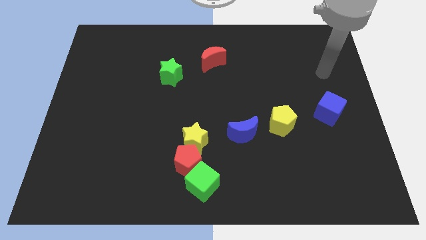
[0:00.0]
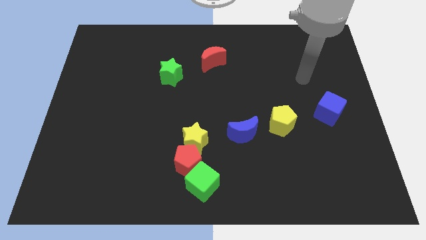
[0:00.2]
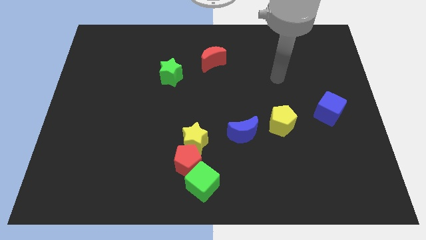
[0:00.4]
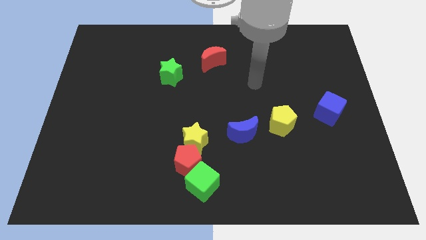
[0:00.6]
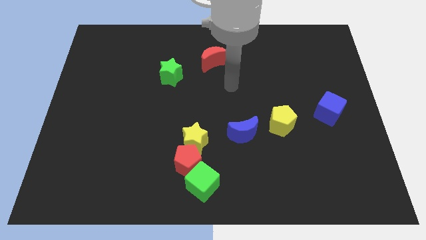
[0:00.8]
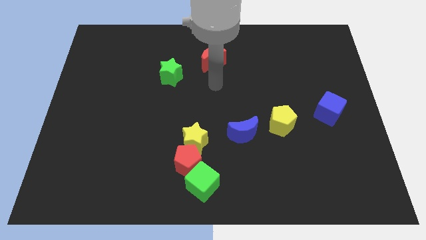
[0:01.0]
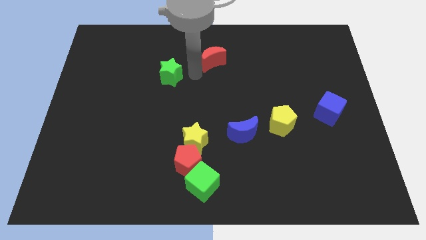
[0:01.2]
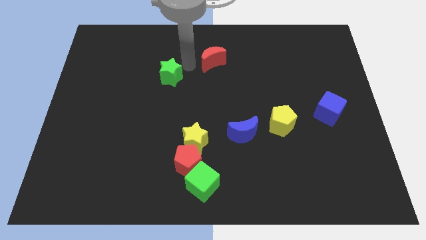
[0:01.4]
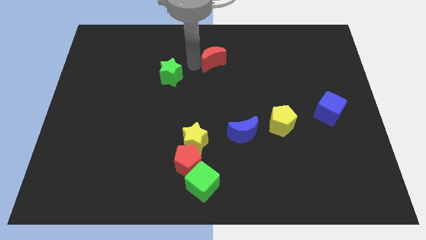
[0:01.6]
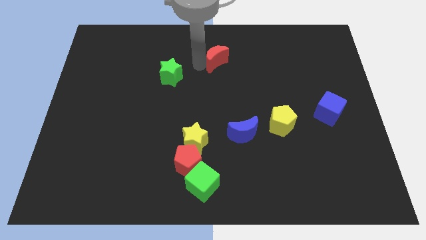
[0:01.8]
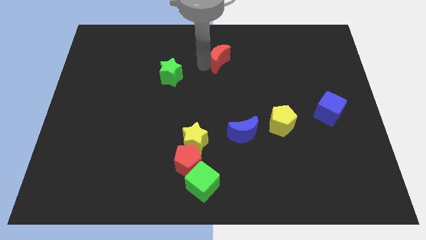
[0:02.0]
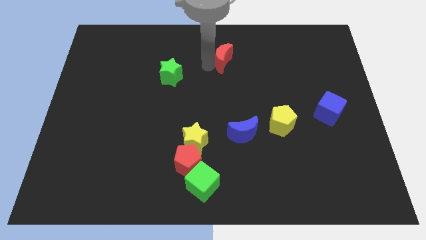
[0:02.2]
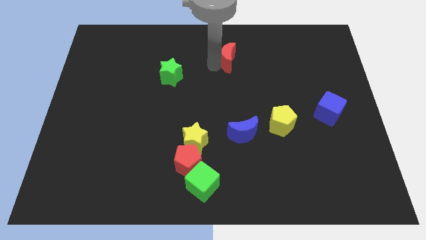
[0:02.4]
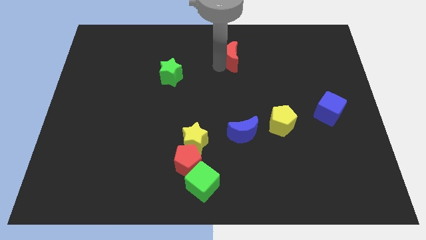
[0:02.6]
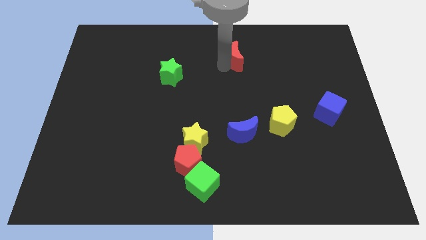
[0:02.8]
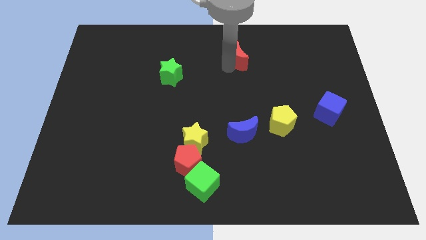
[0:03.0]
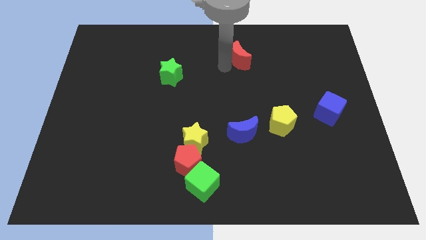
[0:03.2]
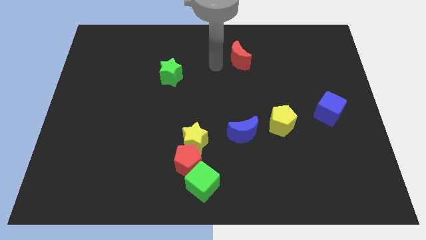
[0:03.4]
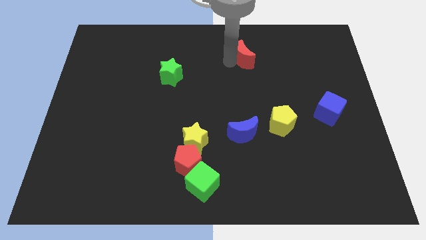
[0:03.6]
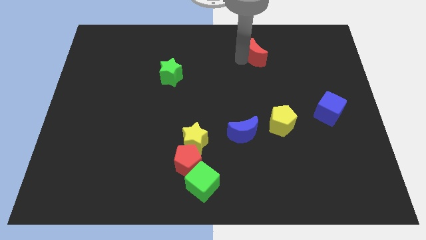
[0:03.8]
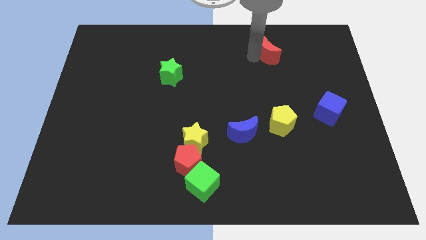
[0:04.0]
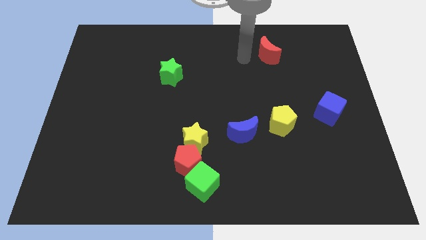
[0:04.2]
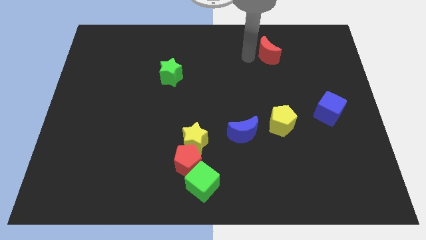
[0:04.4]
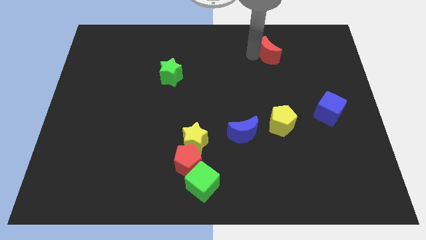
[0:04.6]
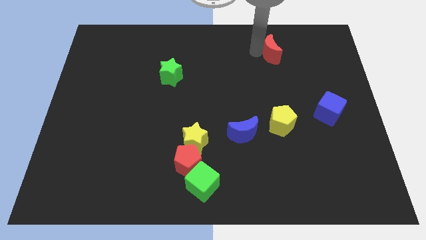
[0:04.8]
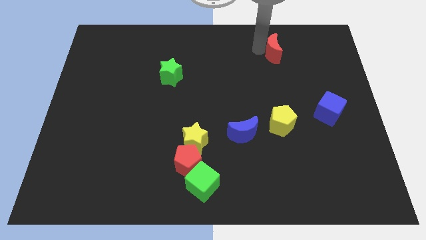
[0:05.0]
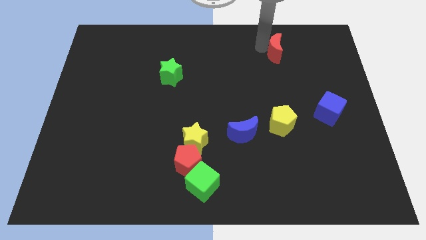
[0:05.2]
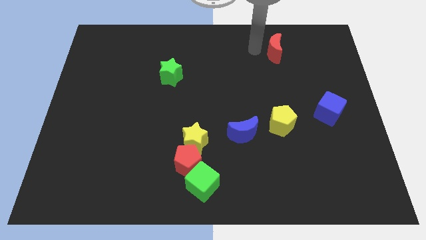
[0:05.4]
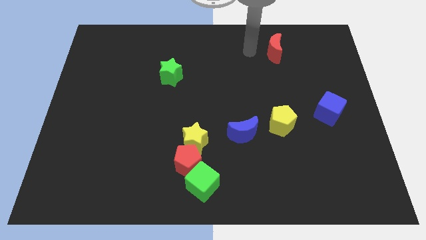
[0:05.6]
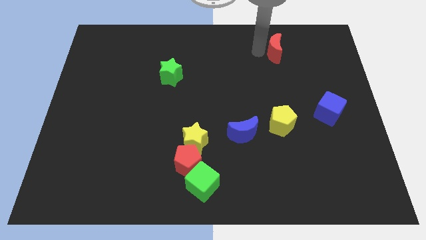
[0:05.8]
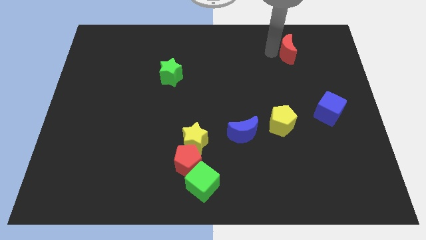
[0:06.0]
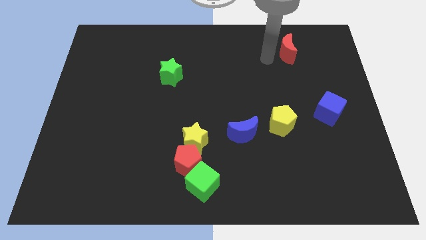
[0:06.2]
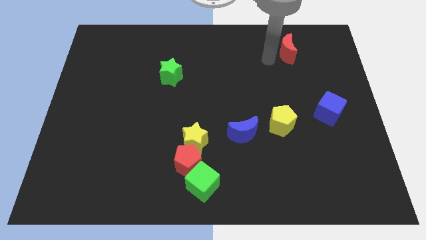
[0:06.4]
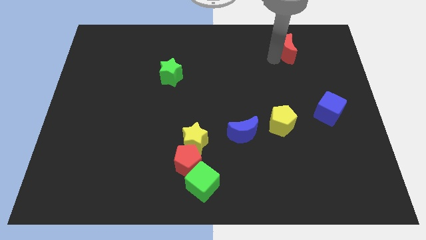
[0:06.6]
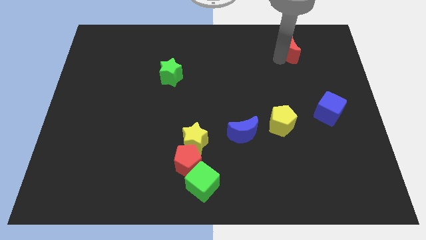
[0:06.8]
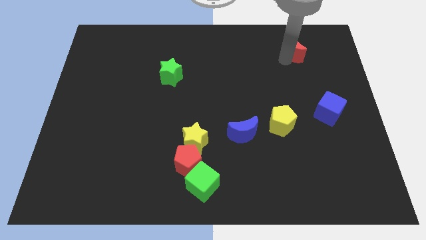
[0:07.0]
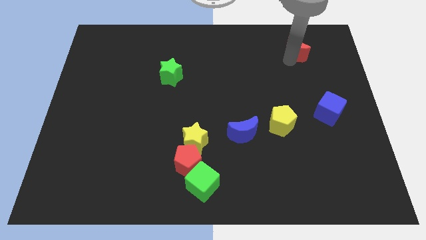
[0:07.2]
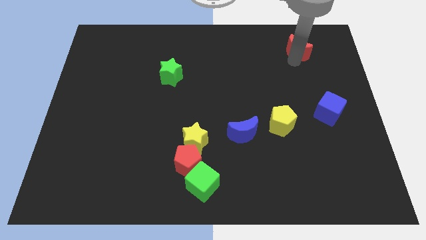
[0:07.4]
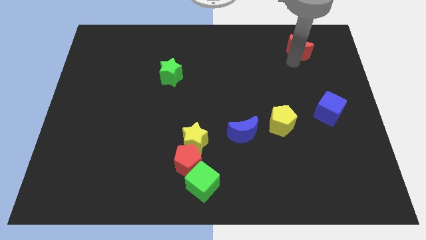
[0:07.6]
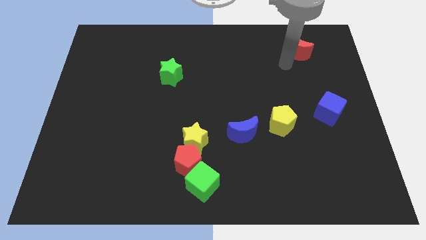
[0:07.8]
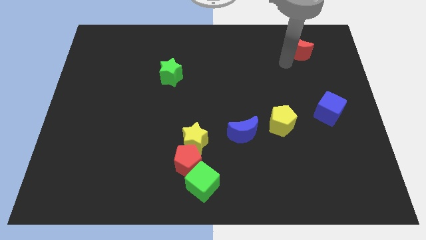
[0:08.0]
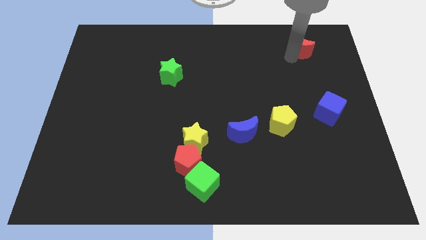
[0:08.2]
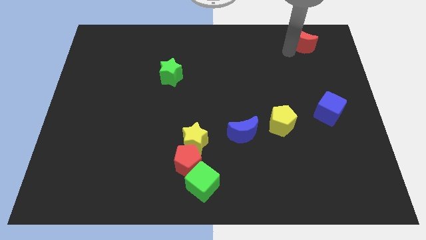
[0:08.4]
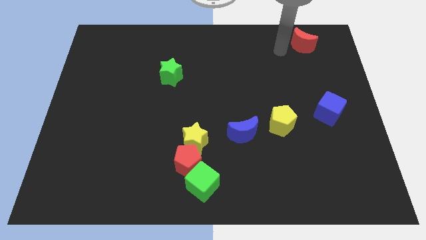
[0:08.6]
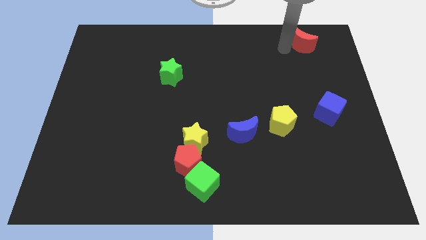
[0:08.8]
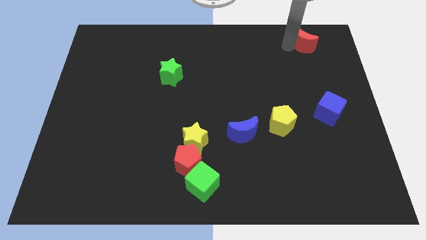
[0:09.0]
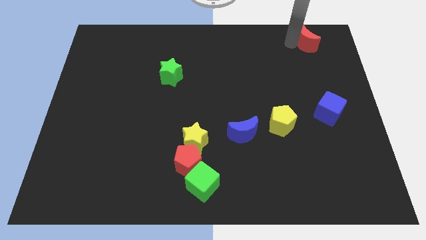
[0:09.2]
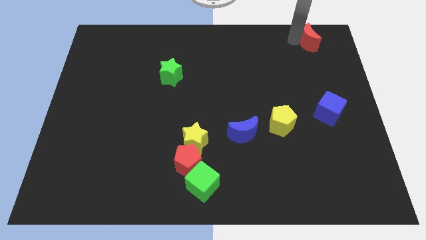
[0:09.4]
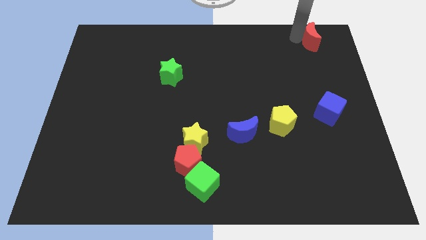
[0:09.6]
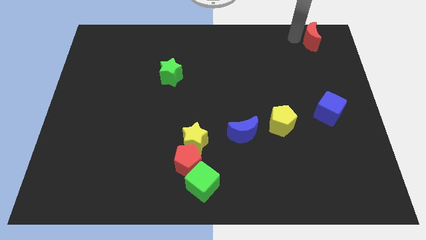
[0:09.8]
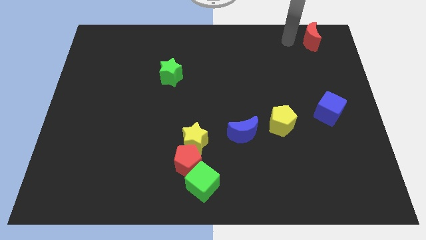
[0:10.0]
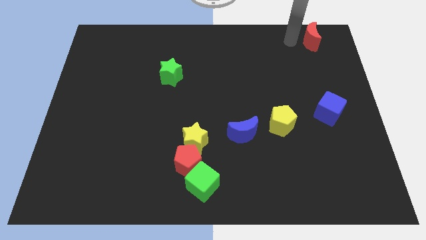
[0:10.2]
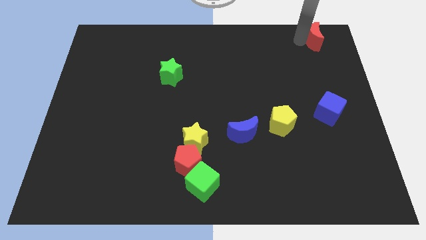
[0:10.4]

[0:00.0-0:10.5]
put the red moon to the top right of the board
